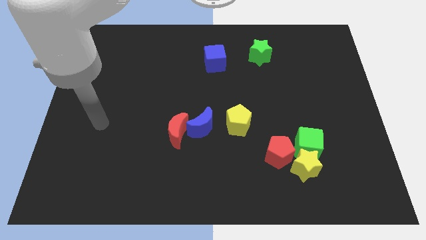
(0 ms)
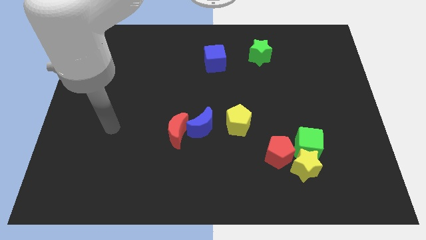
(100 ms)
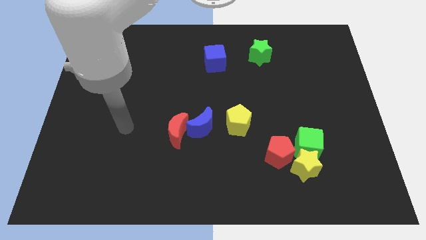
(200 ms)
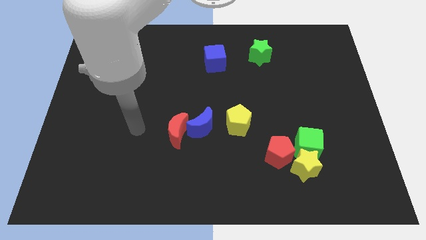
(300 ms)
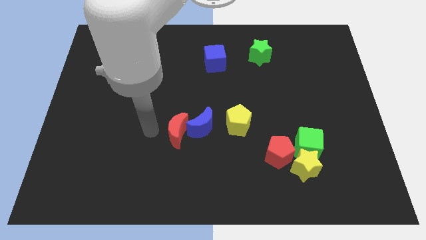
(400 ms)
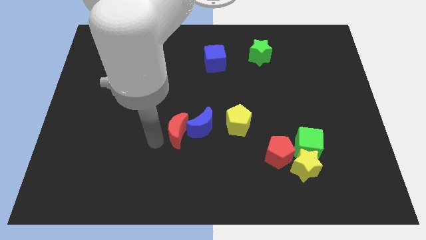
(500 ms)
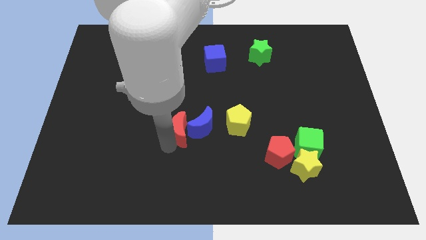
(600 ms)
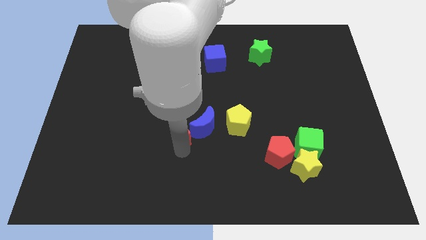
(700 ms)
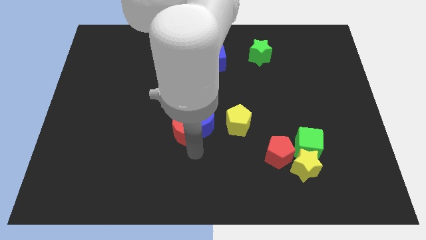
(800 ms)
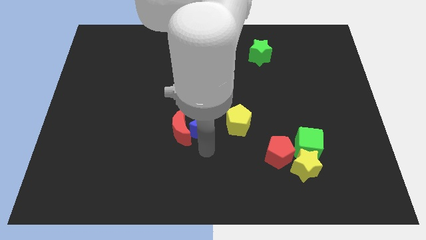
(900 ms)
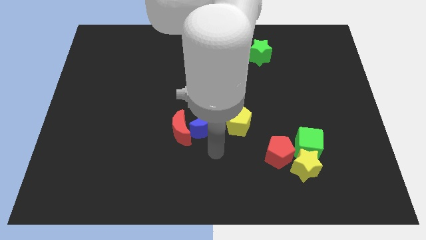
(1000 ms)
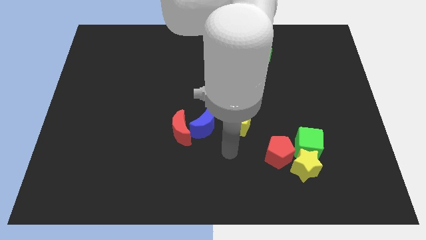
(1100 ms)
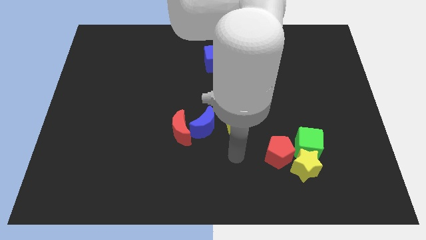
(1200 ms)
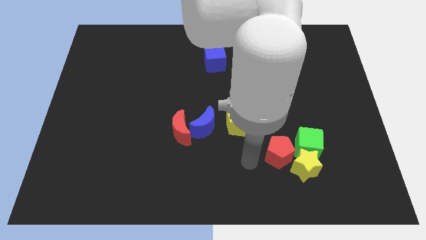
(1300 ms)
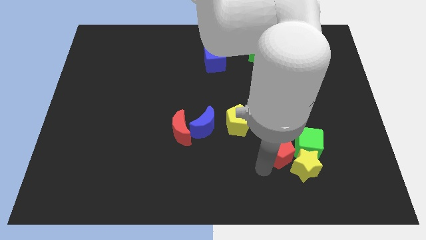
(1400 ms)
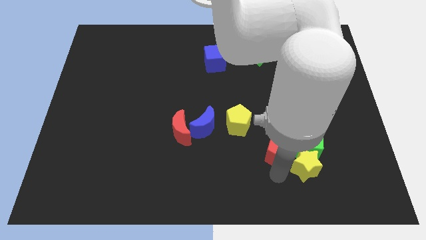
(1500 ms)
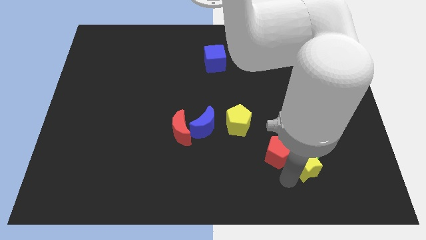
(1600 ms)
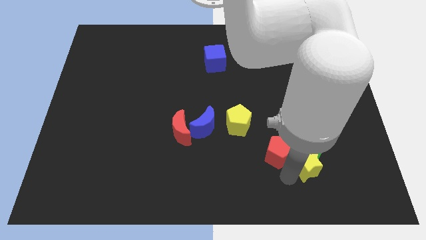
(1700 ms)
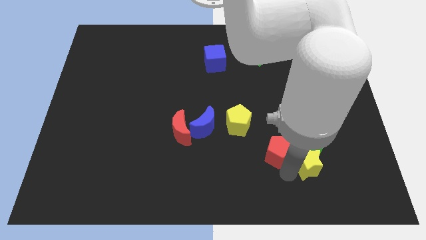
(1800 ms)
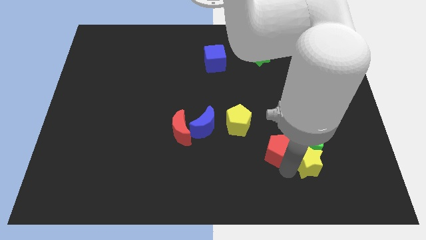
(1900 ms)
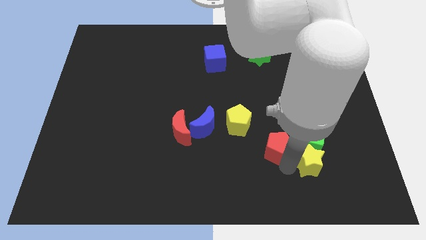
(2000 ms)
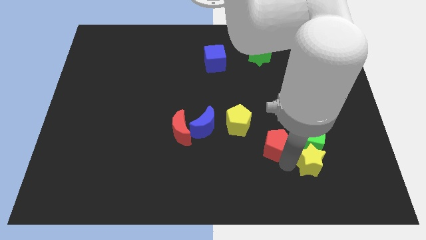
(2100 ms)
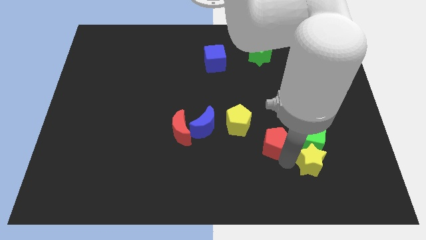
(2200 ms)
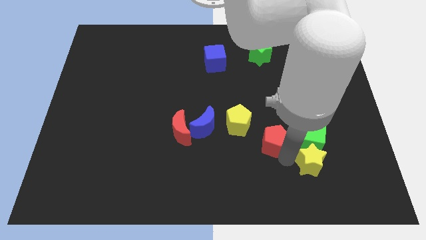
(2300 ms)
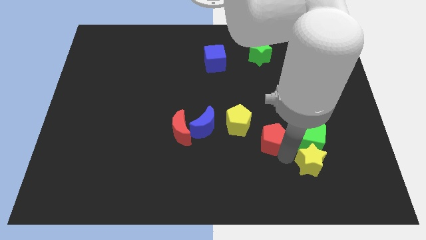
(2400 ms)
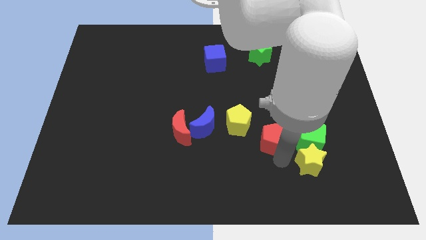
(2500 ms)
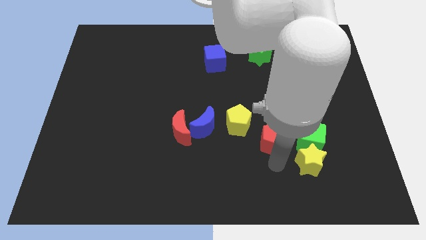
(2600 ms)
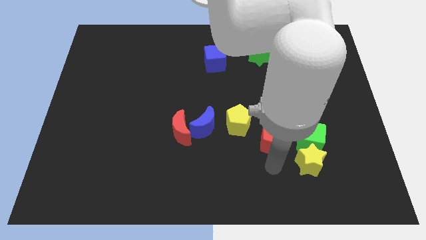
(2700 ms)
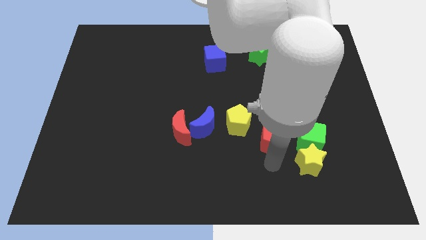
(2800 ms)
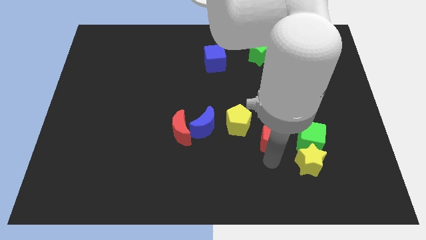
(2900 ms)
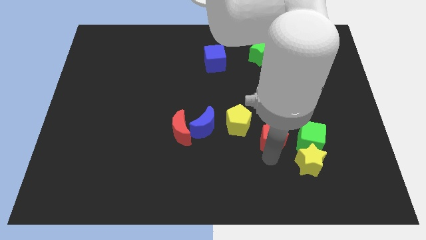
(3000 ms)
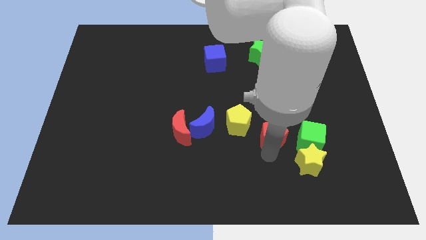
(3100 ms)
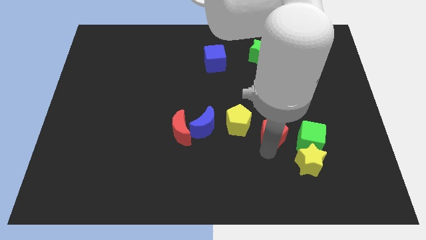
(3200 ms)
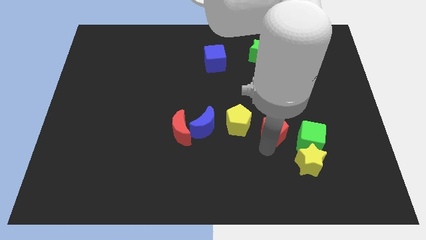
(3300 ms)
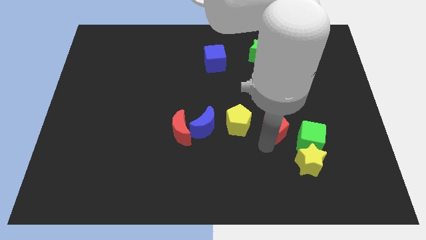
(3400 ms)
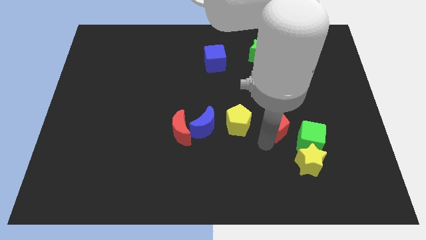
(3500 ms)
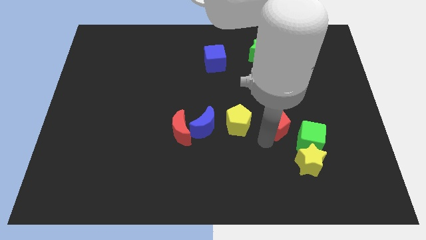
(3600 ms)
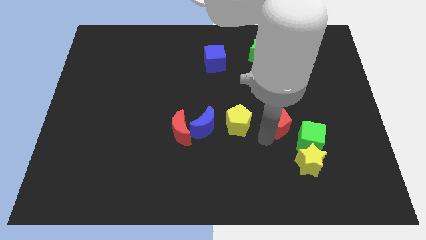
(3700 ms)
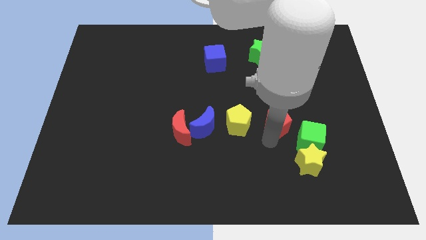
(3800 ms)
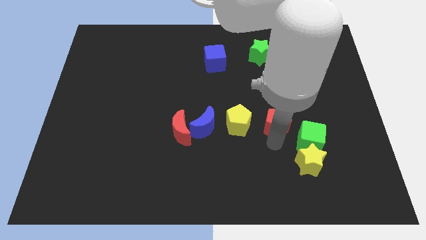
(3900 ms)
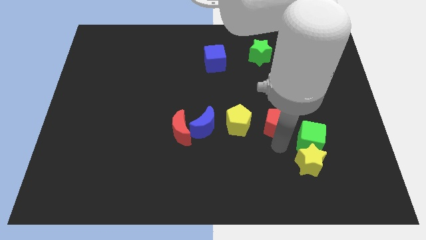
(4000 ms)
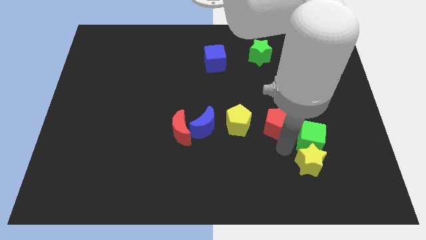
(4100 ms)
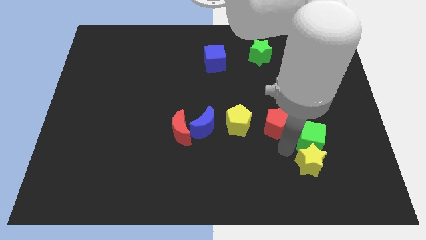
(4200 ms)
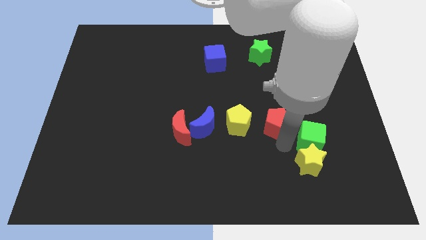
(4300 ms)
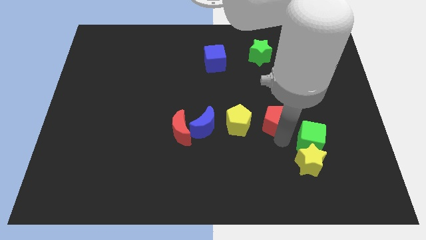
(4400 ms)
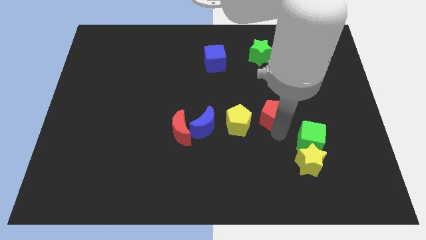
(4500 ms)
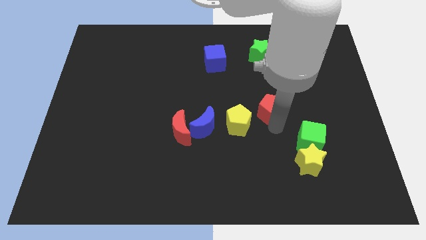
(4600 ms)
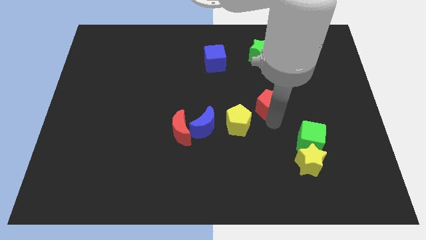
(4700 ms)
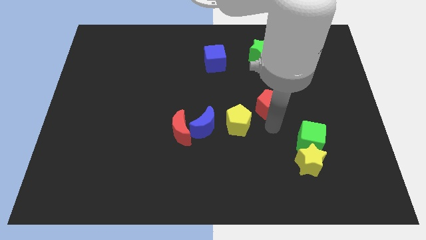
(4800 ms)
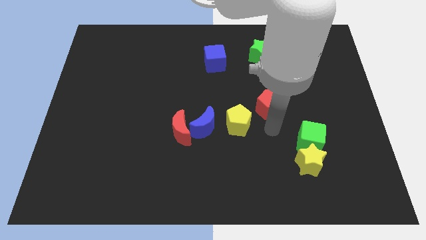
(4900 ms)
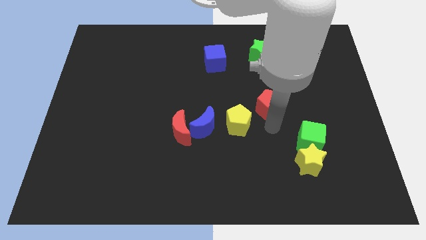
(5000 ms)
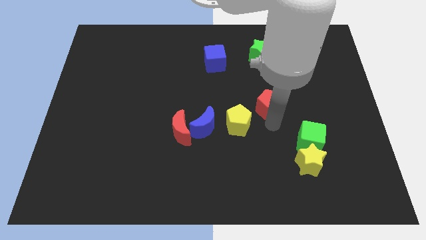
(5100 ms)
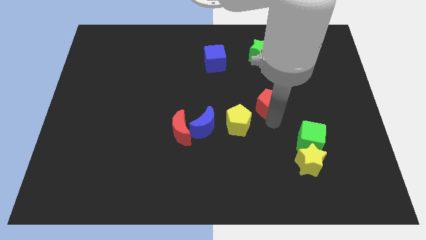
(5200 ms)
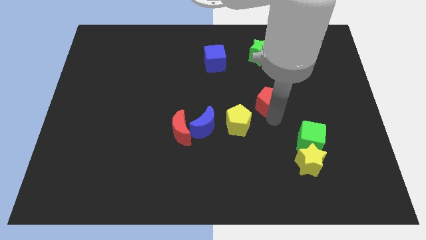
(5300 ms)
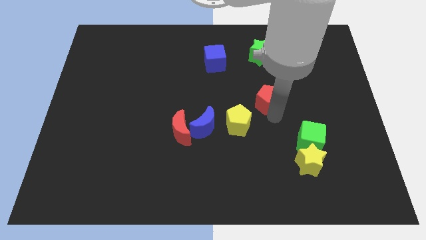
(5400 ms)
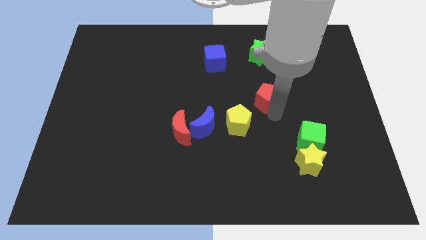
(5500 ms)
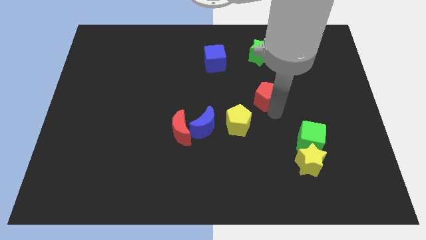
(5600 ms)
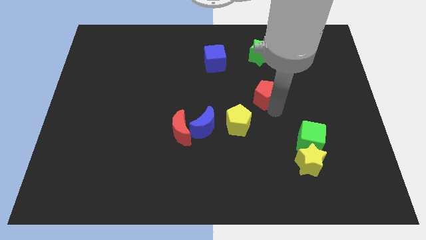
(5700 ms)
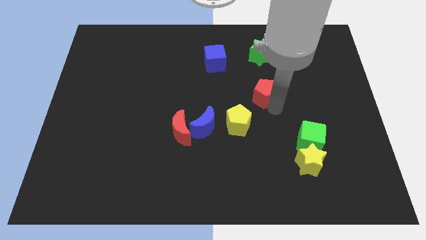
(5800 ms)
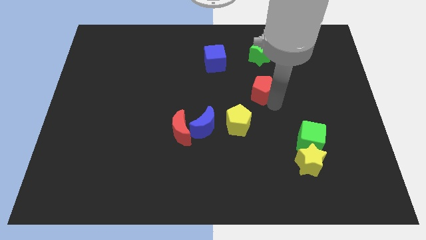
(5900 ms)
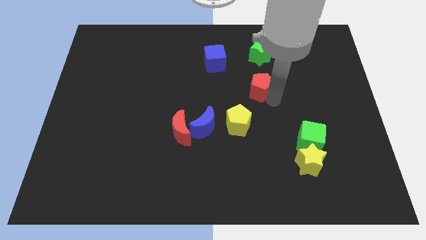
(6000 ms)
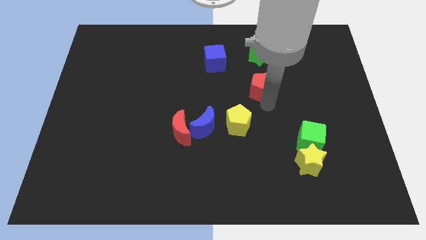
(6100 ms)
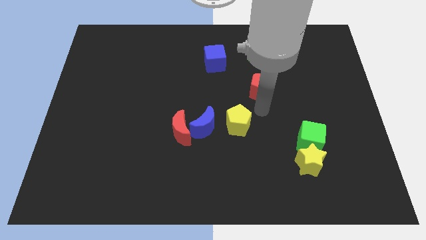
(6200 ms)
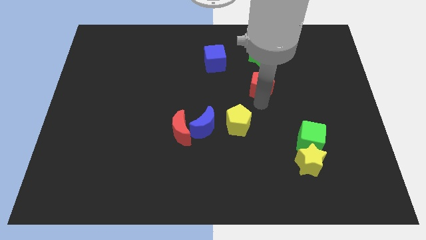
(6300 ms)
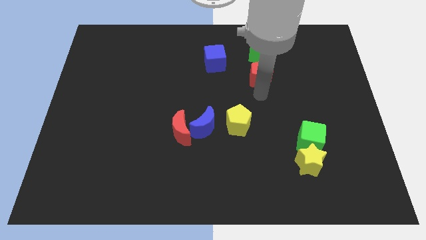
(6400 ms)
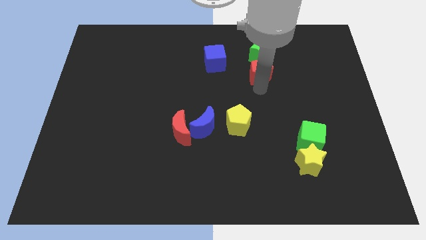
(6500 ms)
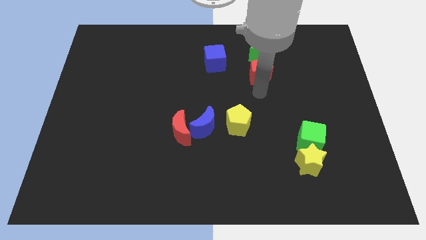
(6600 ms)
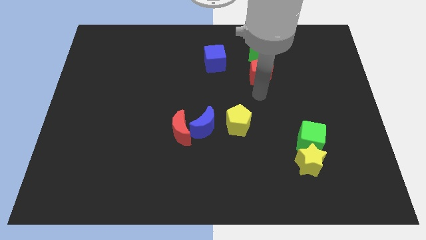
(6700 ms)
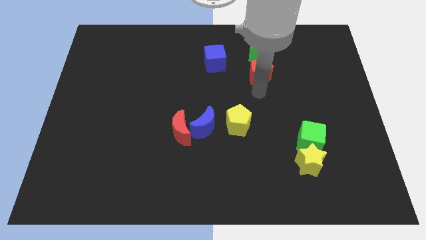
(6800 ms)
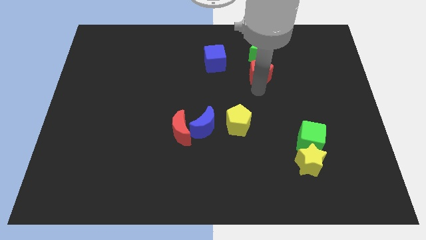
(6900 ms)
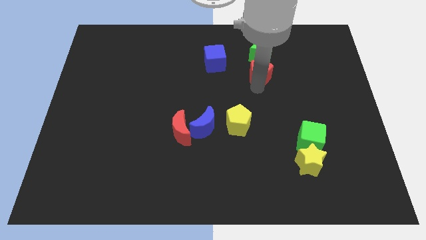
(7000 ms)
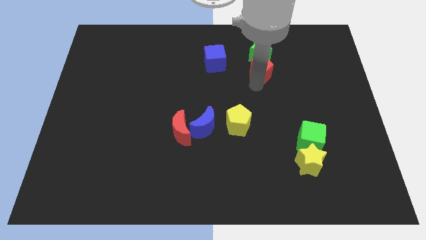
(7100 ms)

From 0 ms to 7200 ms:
slide the red pentagon next to the green star

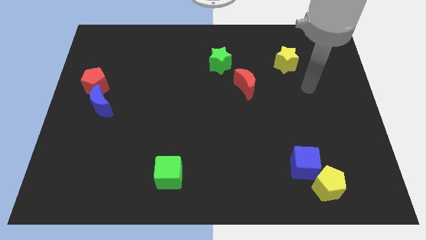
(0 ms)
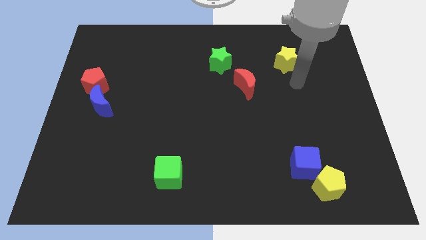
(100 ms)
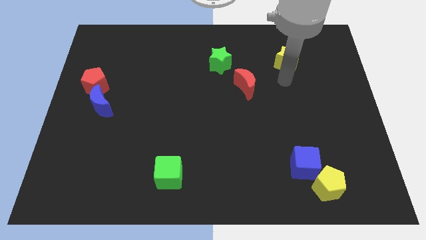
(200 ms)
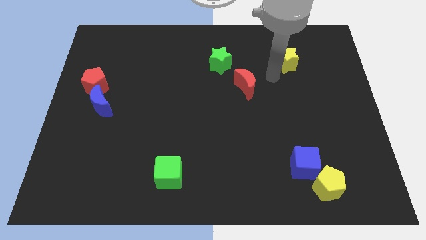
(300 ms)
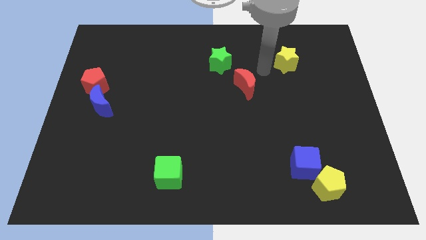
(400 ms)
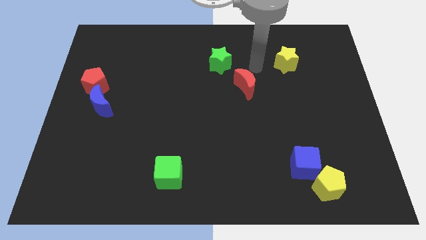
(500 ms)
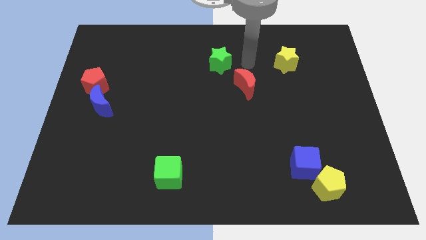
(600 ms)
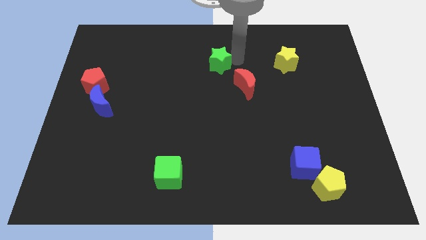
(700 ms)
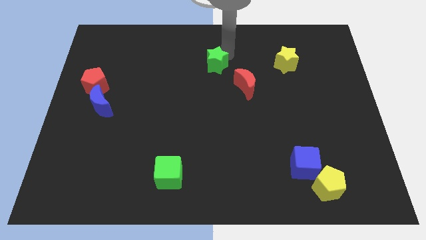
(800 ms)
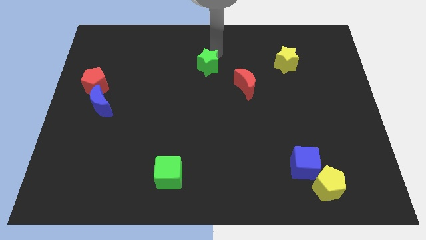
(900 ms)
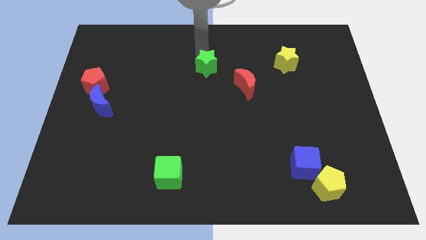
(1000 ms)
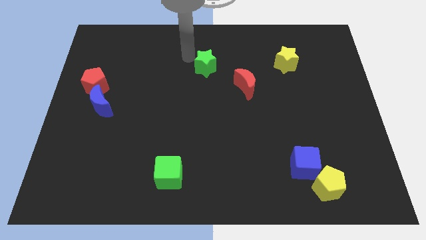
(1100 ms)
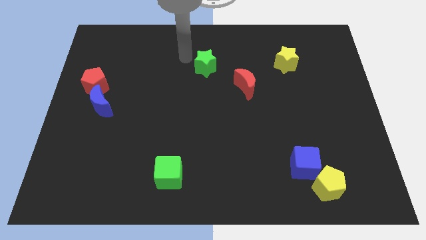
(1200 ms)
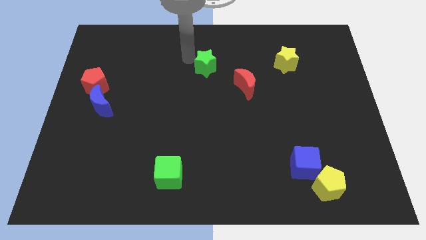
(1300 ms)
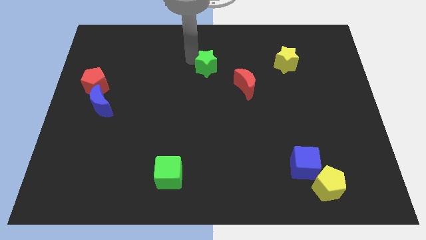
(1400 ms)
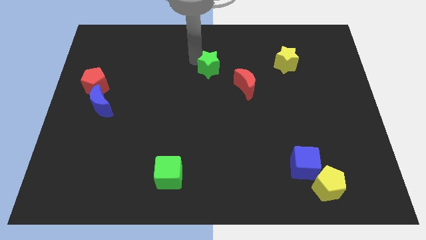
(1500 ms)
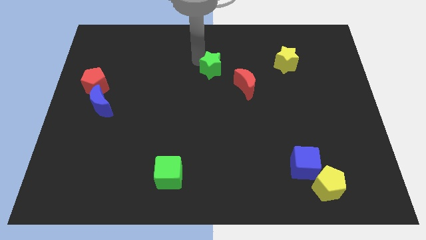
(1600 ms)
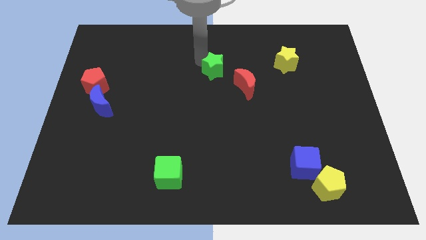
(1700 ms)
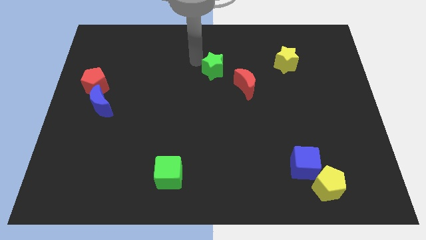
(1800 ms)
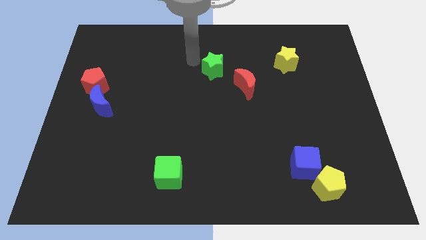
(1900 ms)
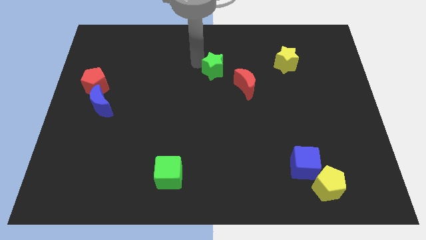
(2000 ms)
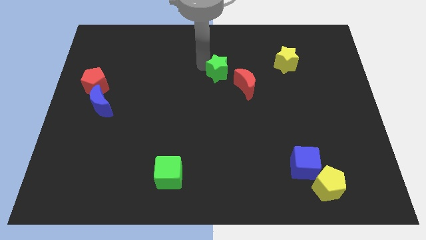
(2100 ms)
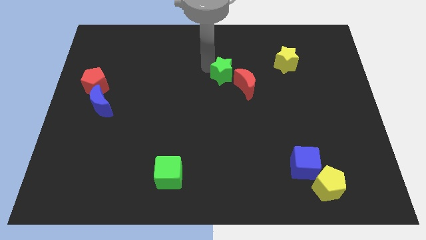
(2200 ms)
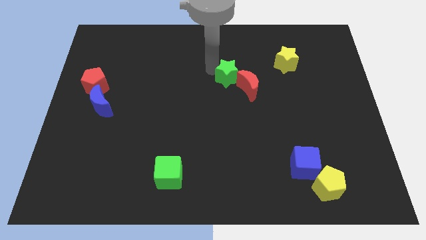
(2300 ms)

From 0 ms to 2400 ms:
move the green star close to the red moon
